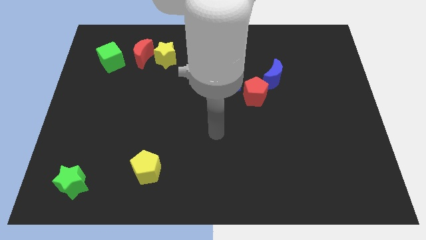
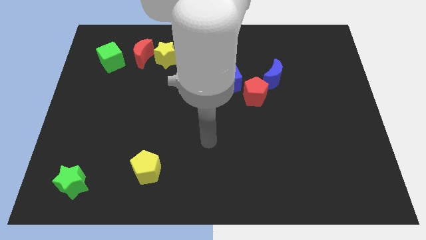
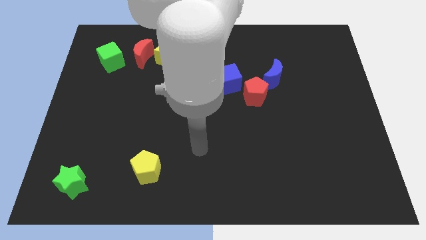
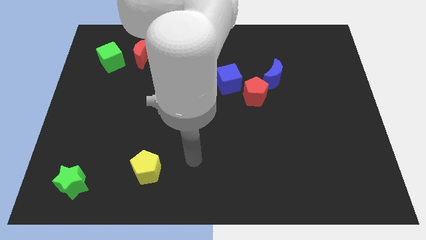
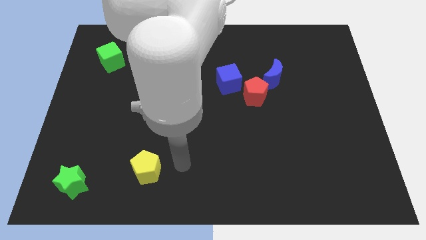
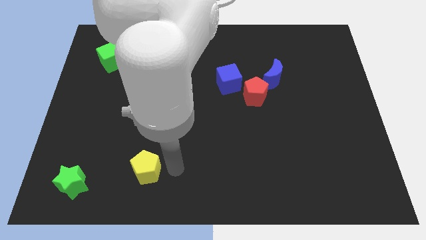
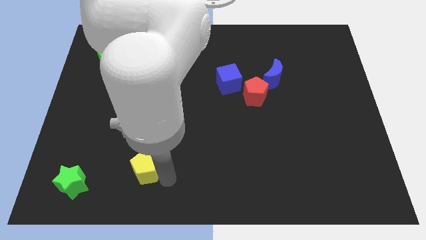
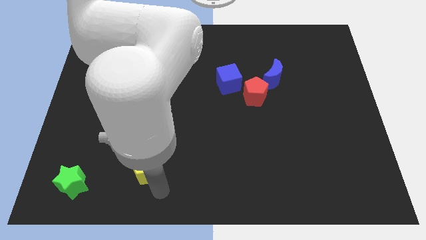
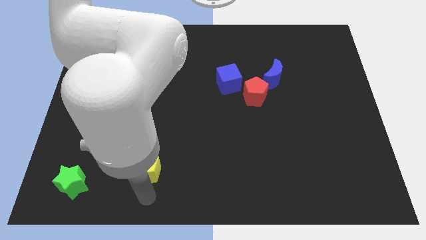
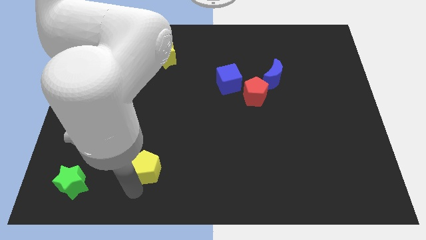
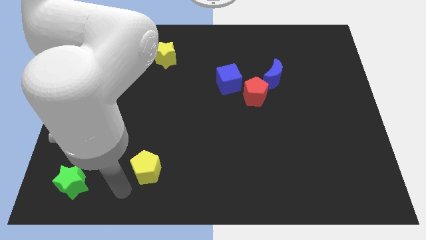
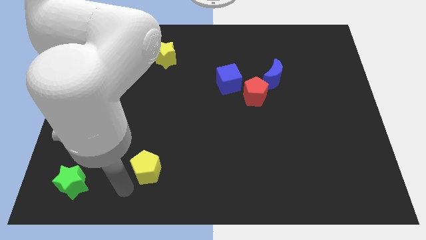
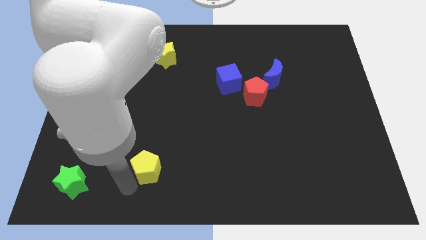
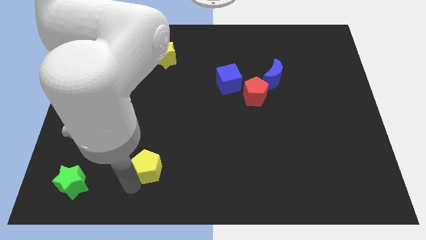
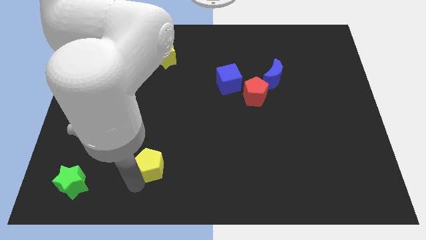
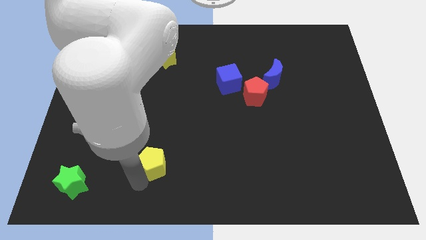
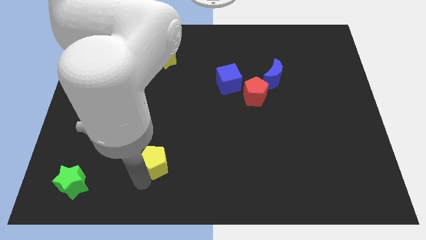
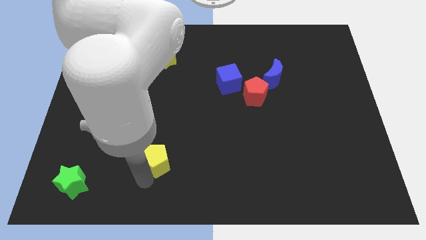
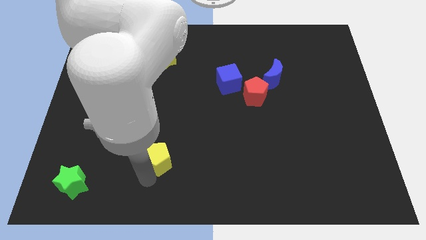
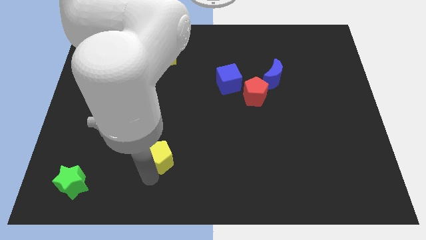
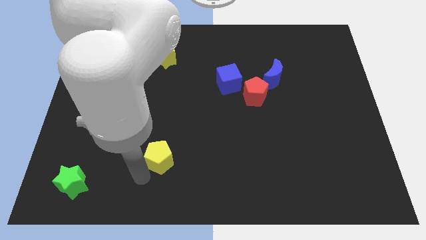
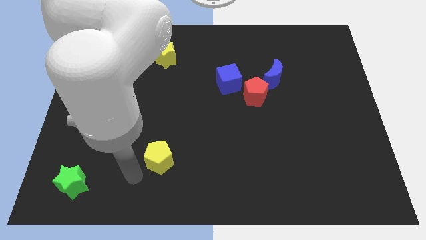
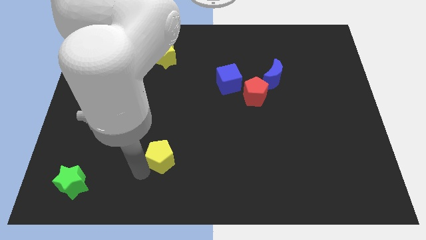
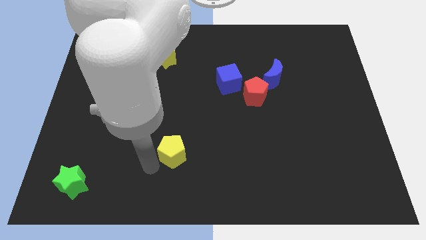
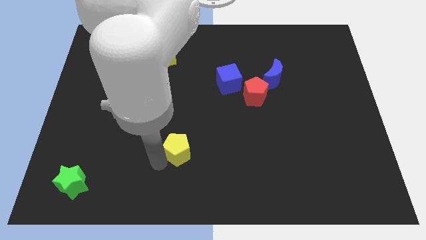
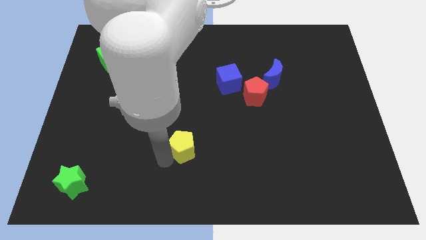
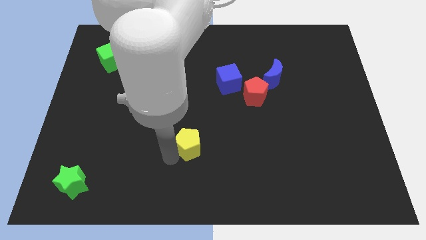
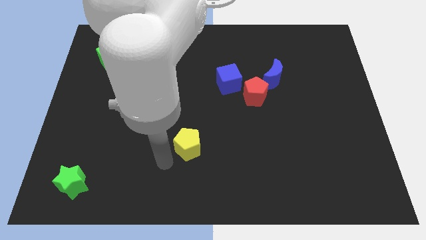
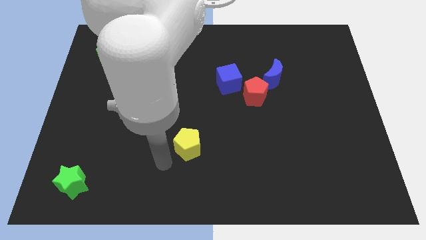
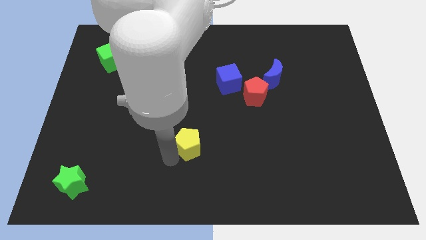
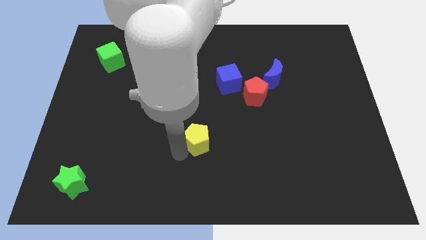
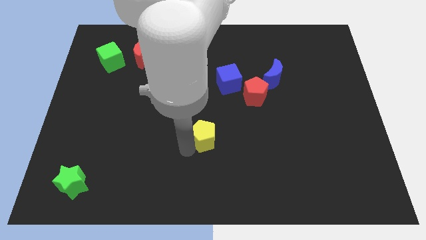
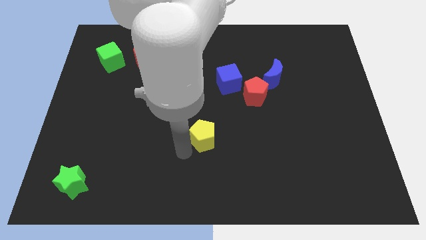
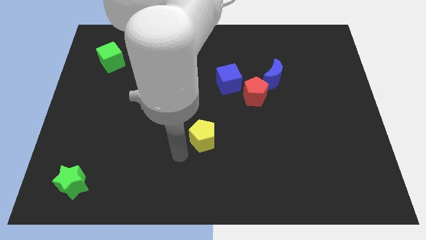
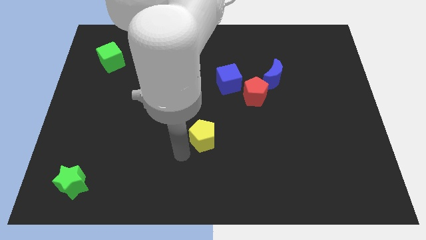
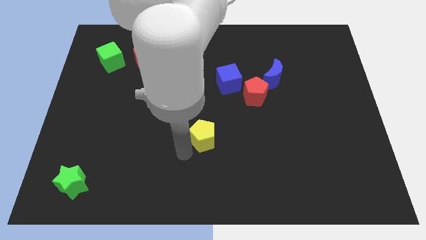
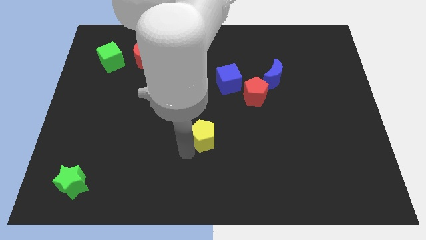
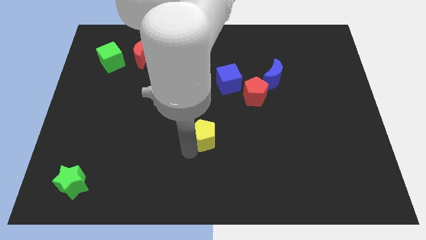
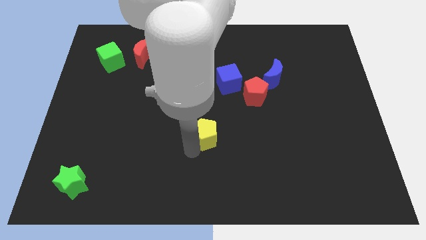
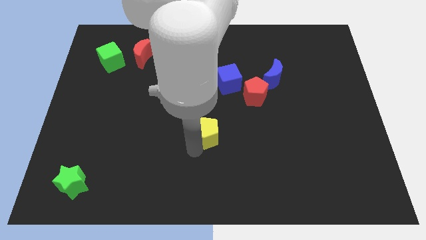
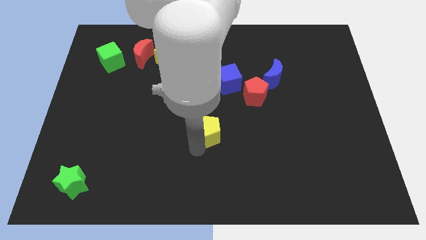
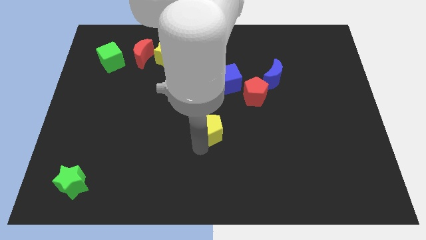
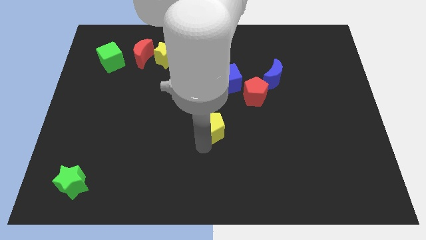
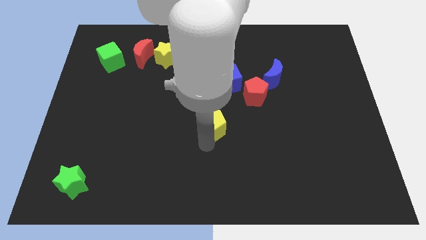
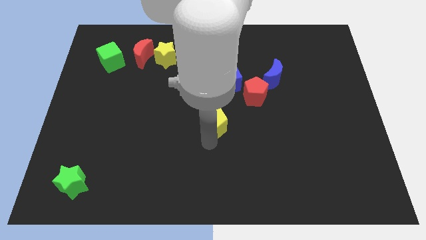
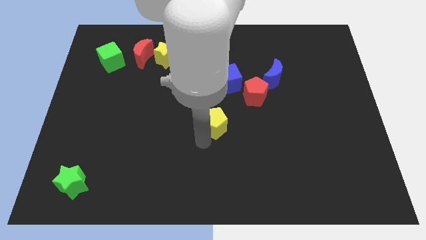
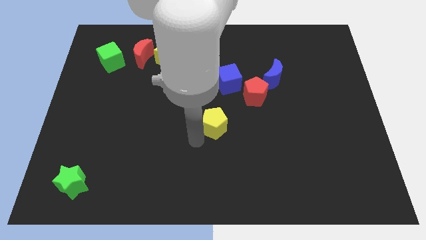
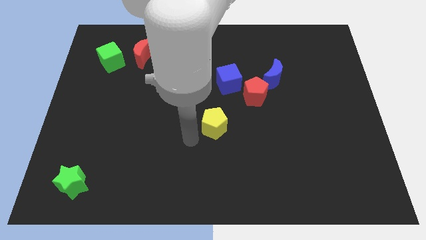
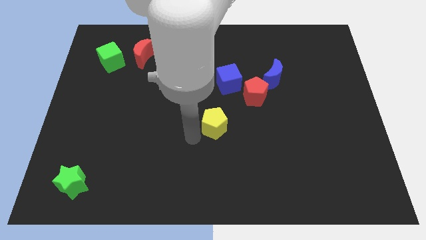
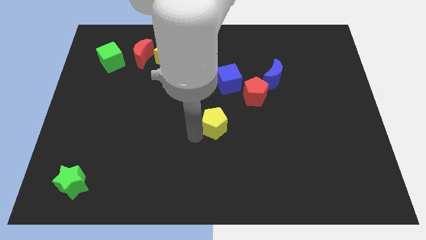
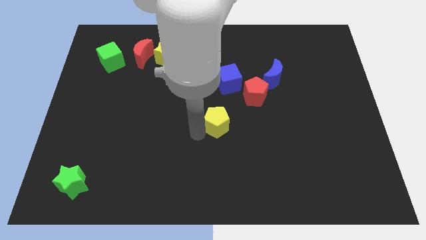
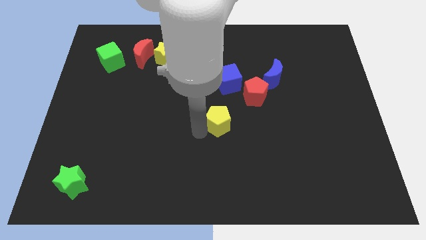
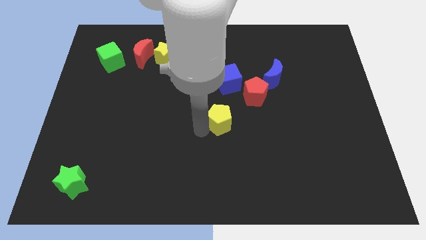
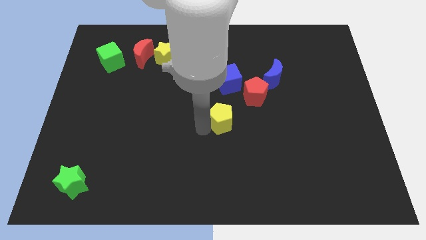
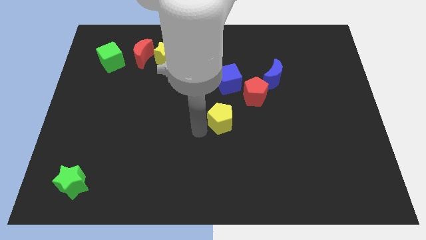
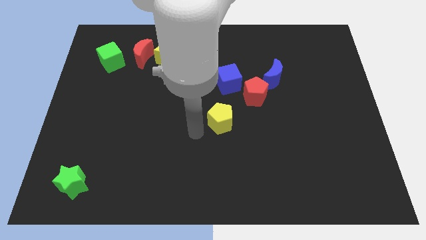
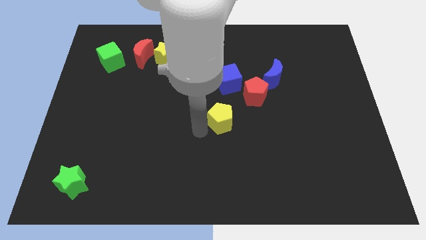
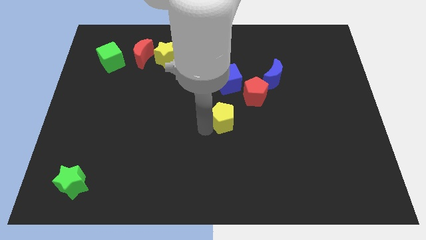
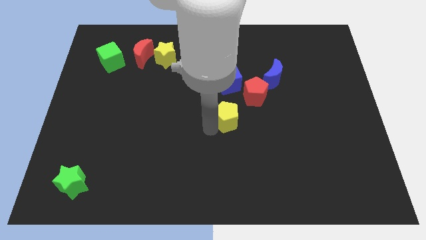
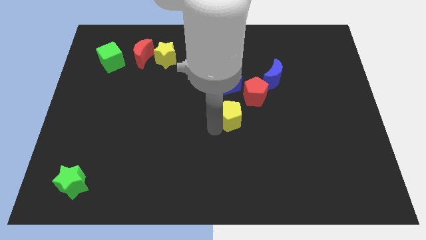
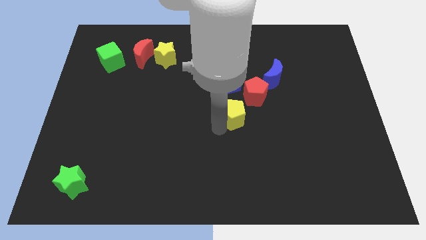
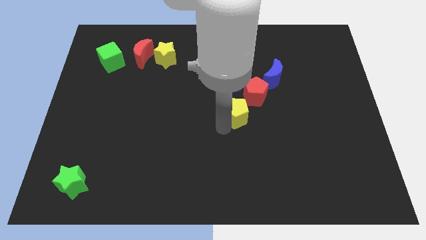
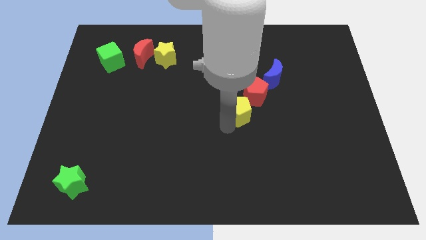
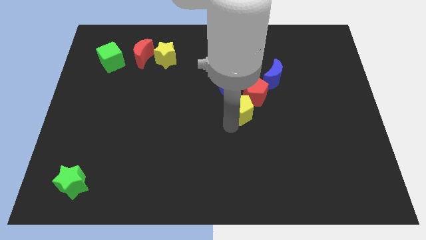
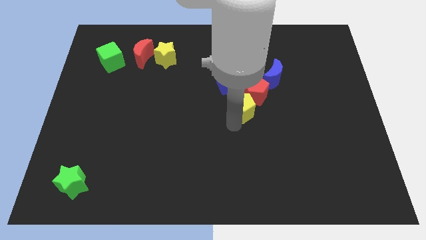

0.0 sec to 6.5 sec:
put the yellow pentagon towards the red pentagon
